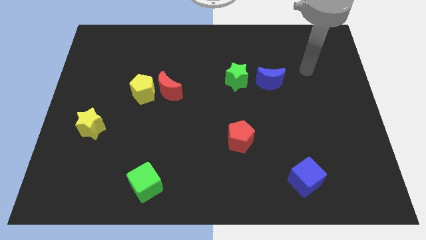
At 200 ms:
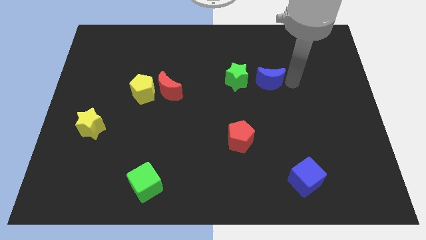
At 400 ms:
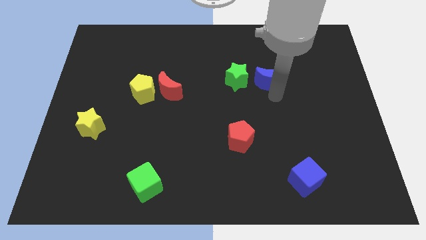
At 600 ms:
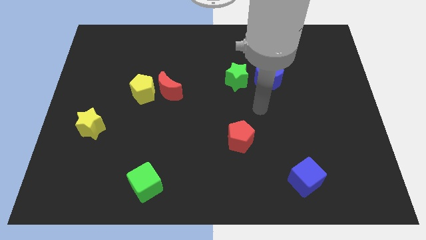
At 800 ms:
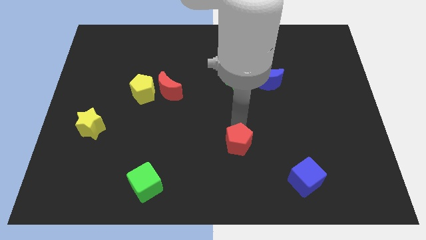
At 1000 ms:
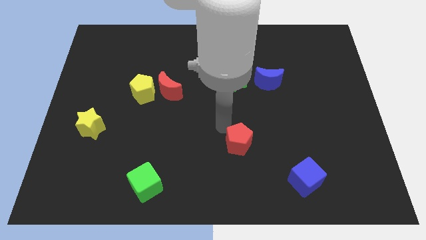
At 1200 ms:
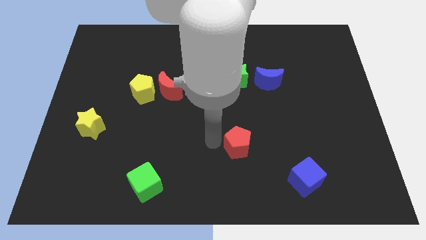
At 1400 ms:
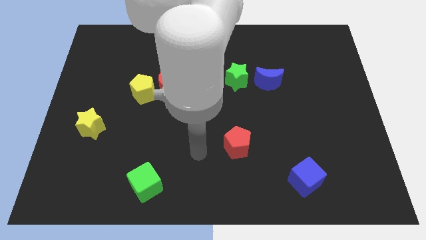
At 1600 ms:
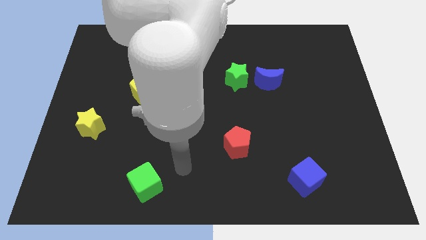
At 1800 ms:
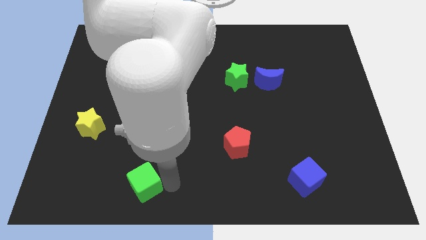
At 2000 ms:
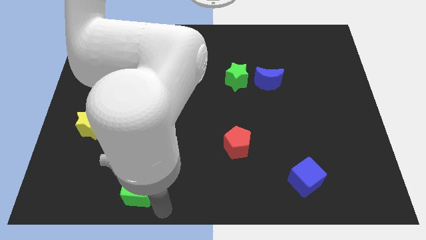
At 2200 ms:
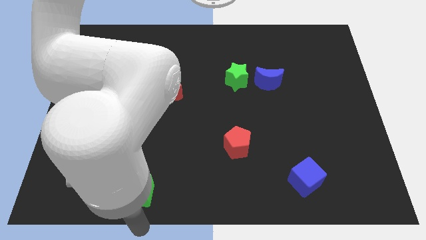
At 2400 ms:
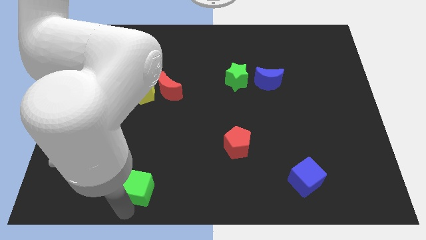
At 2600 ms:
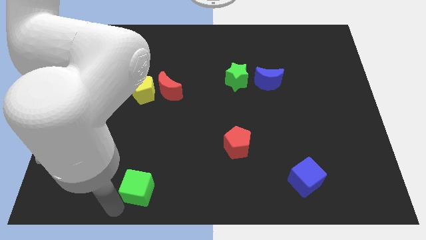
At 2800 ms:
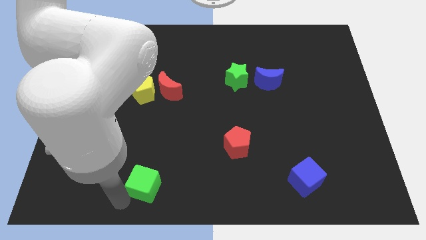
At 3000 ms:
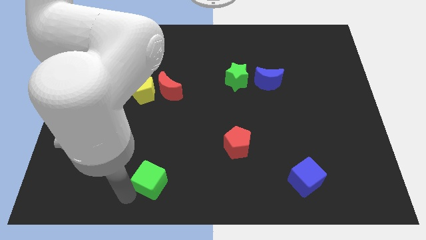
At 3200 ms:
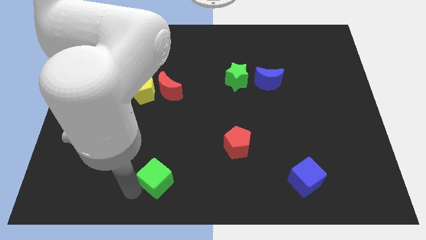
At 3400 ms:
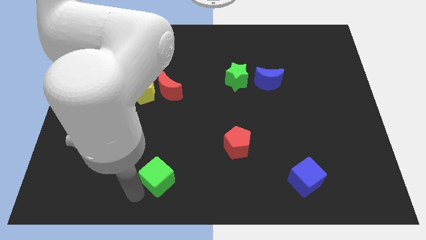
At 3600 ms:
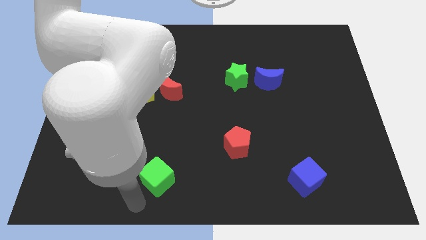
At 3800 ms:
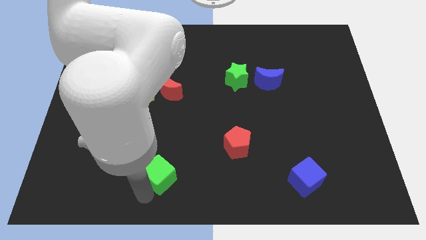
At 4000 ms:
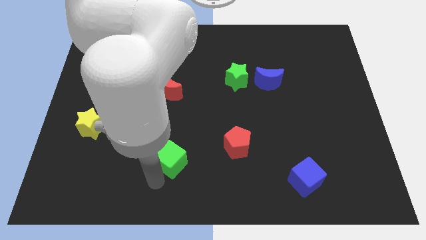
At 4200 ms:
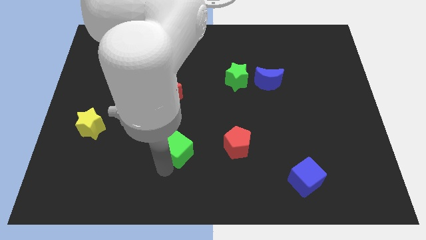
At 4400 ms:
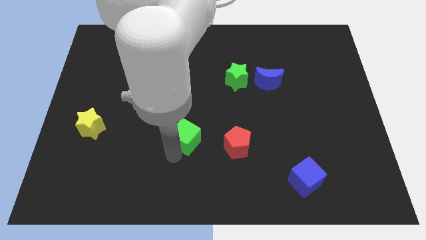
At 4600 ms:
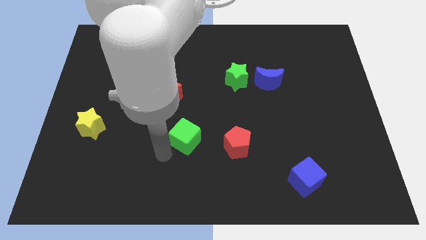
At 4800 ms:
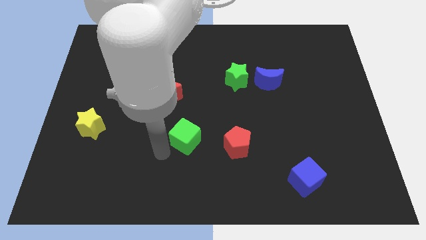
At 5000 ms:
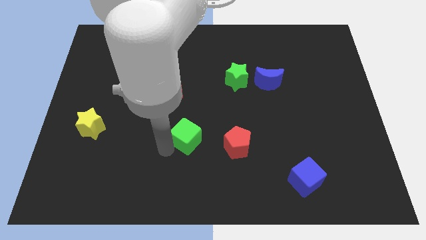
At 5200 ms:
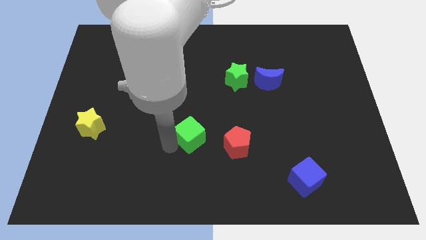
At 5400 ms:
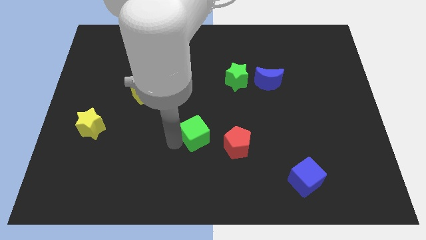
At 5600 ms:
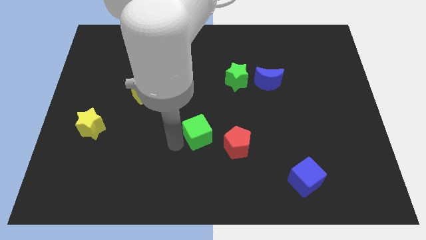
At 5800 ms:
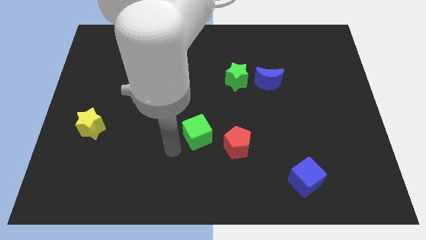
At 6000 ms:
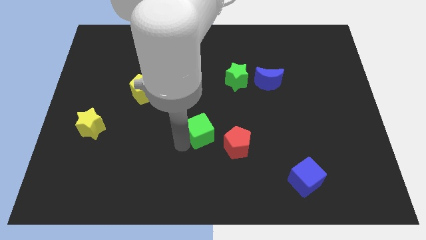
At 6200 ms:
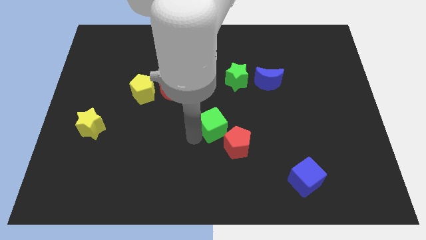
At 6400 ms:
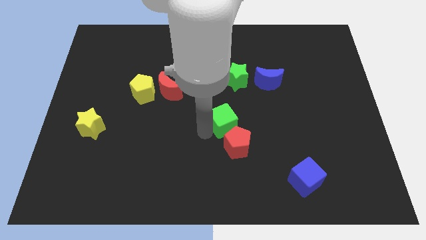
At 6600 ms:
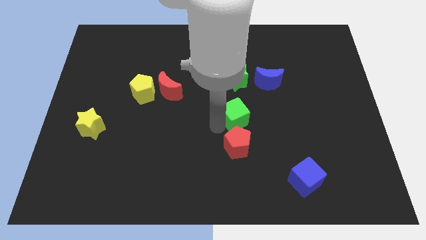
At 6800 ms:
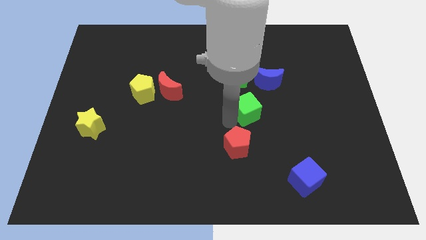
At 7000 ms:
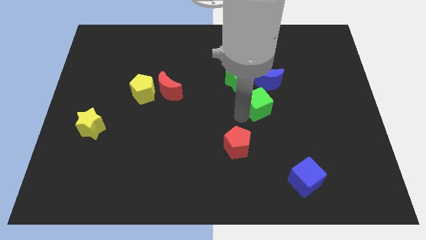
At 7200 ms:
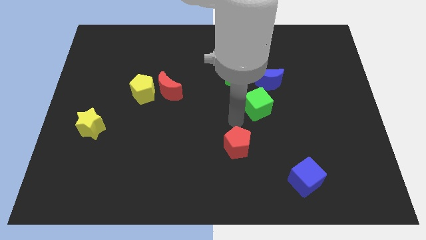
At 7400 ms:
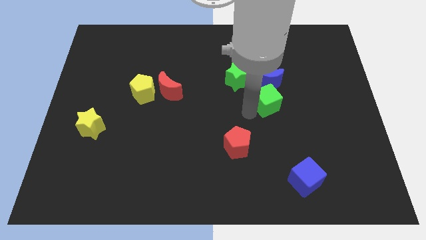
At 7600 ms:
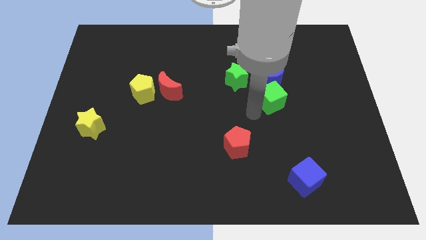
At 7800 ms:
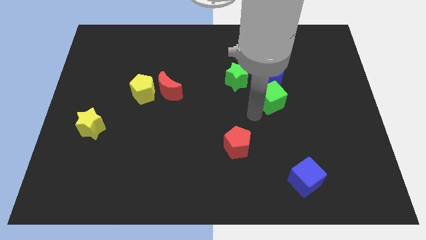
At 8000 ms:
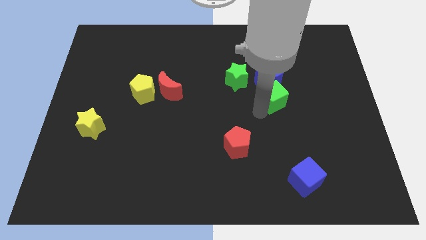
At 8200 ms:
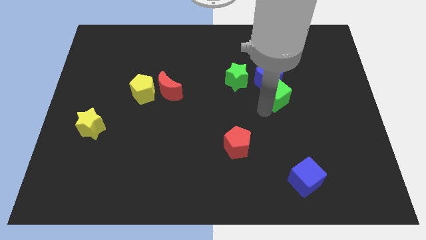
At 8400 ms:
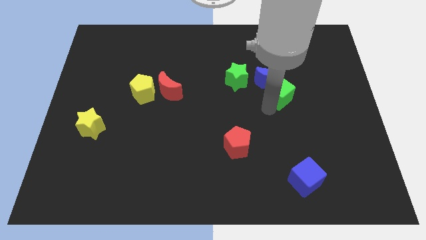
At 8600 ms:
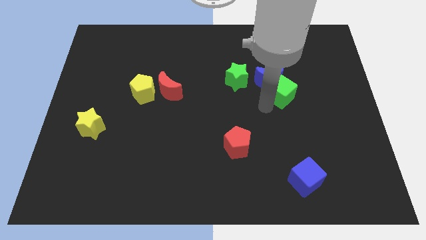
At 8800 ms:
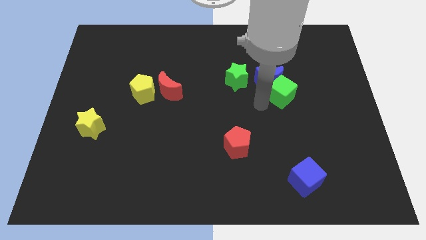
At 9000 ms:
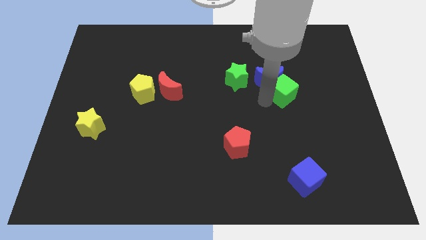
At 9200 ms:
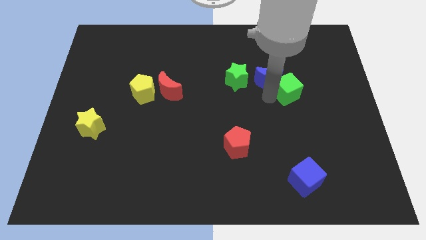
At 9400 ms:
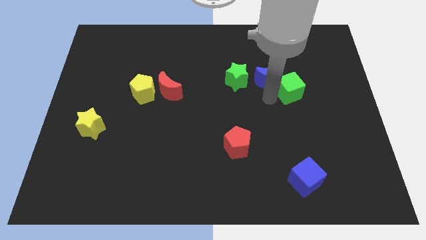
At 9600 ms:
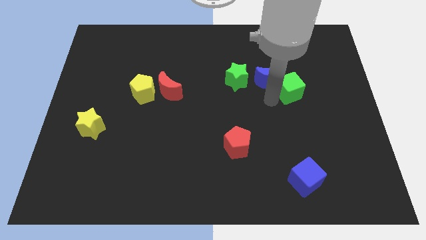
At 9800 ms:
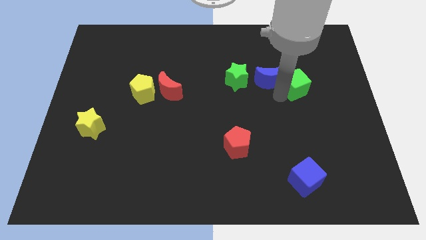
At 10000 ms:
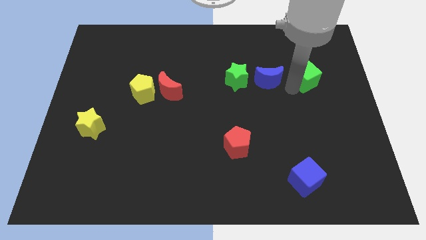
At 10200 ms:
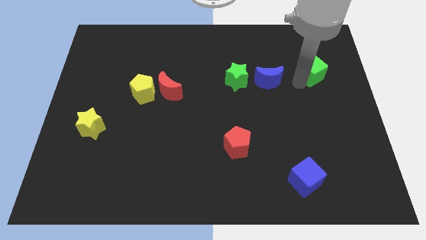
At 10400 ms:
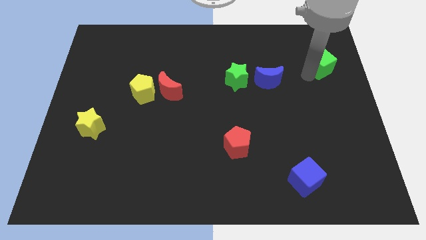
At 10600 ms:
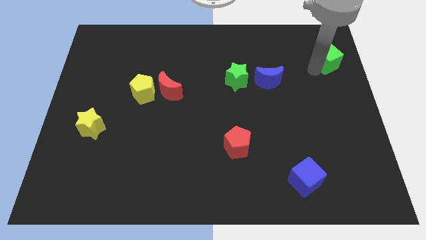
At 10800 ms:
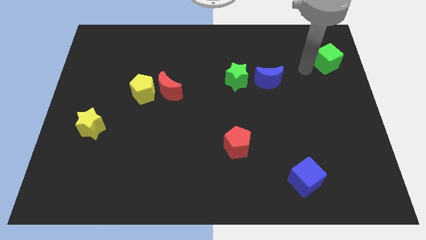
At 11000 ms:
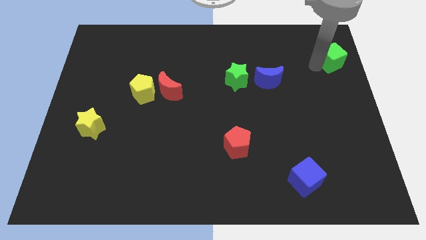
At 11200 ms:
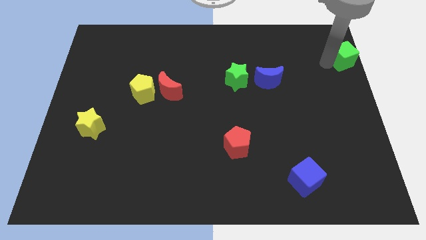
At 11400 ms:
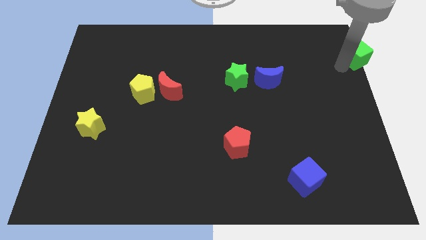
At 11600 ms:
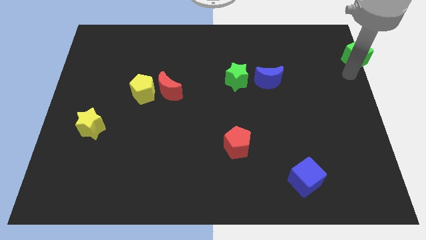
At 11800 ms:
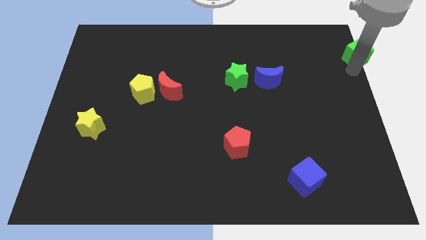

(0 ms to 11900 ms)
slide the green cube to the top right of the board

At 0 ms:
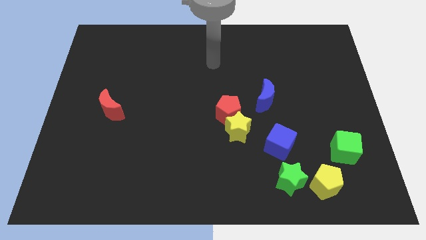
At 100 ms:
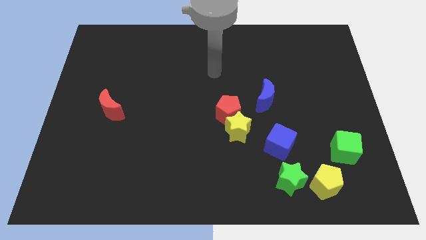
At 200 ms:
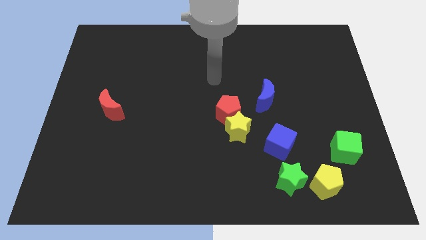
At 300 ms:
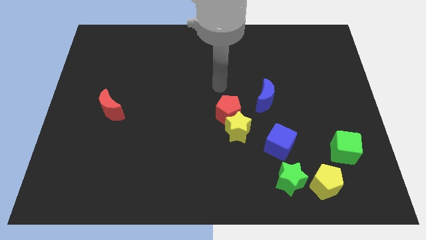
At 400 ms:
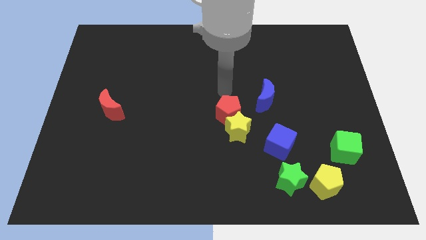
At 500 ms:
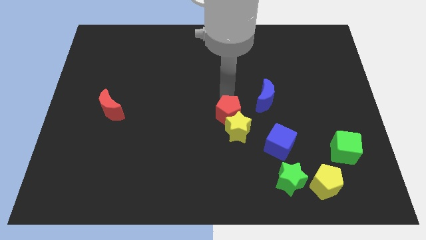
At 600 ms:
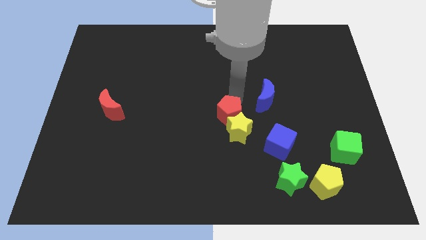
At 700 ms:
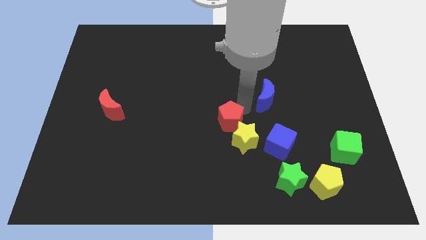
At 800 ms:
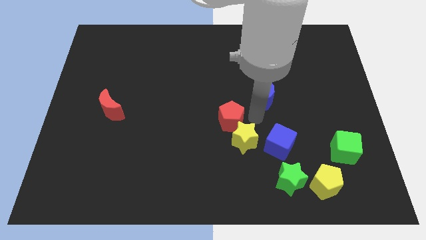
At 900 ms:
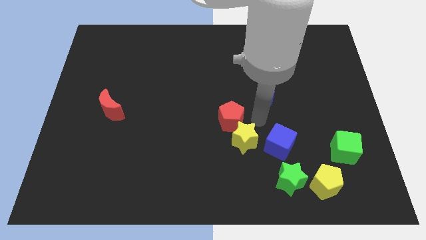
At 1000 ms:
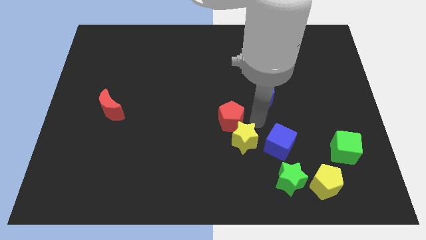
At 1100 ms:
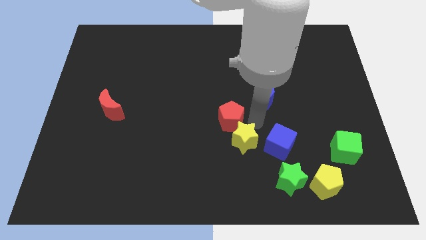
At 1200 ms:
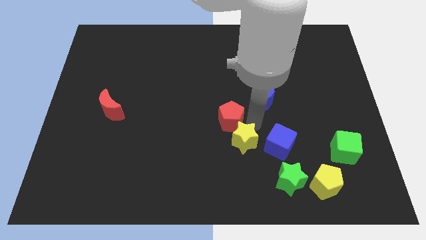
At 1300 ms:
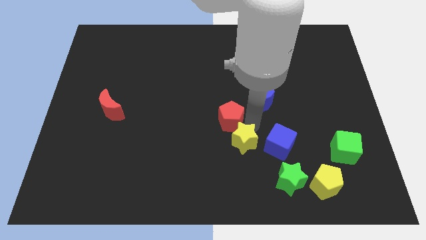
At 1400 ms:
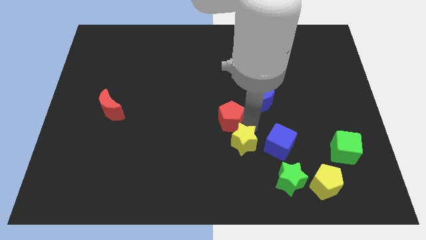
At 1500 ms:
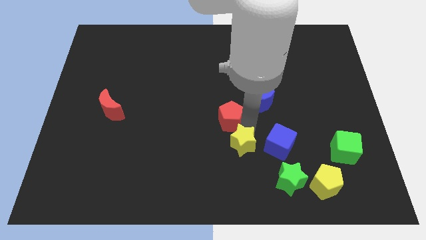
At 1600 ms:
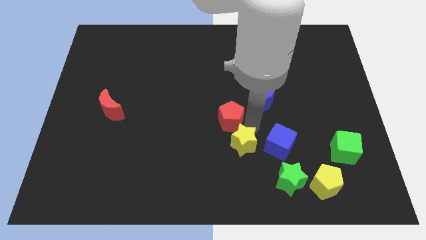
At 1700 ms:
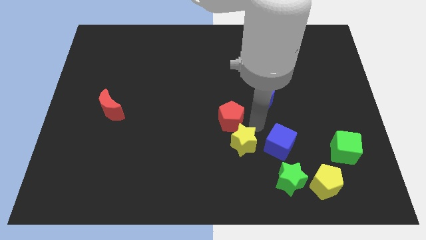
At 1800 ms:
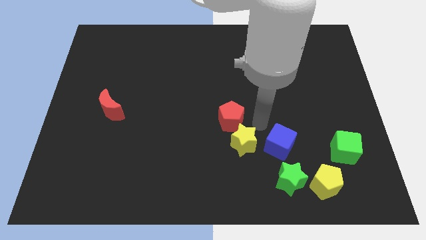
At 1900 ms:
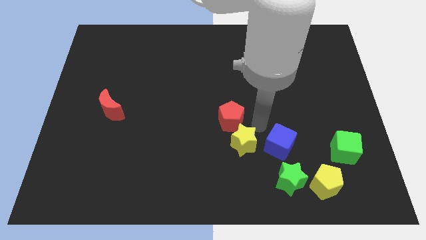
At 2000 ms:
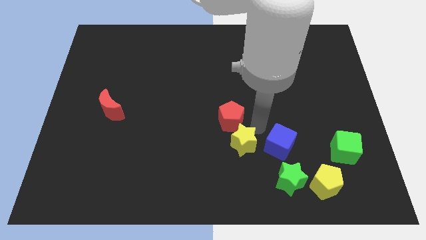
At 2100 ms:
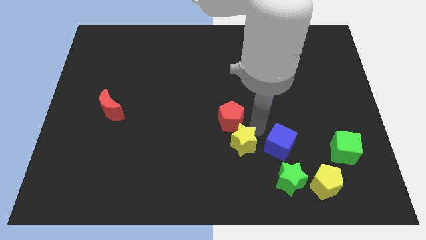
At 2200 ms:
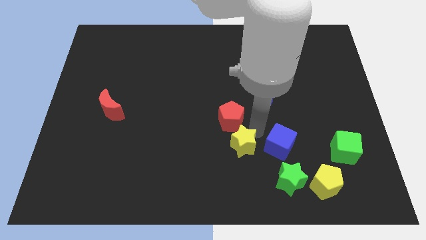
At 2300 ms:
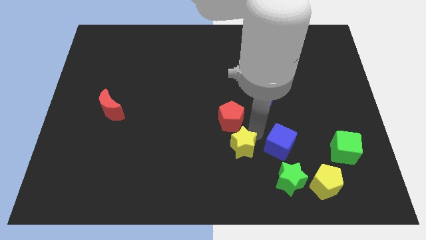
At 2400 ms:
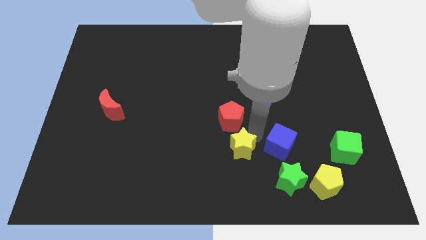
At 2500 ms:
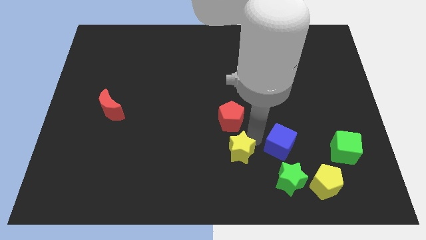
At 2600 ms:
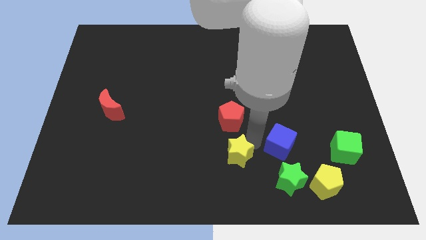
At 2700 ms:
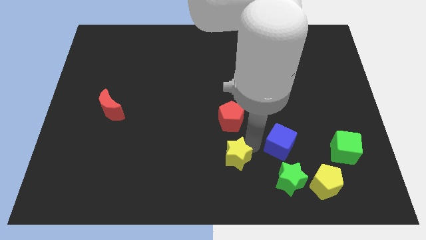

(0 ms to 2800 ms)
push the yellow star to the bottom
